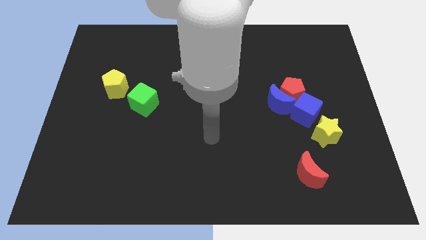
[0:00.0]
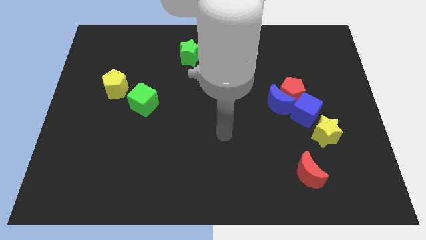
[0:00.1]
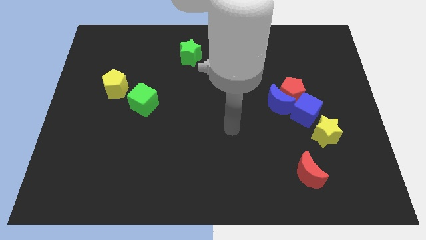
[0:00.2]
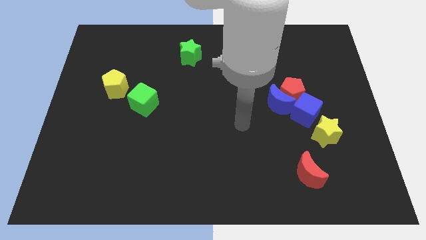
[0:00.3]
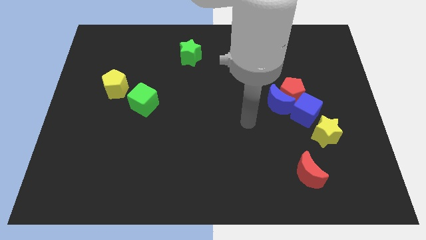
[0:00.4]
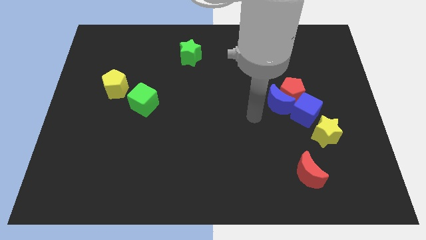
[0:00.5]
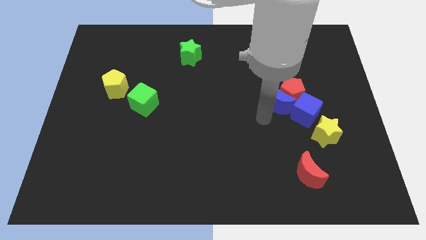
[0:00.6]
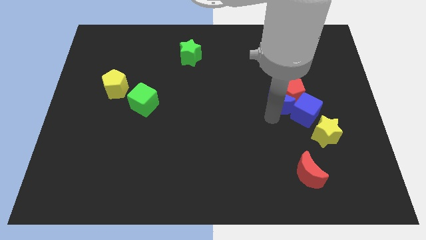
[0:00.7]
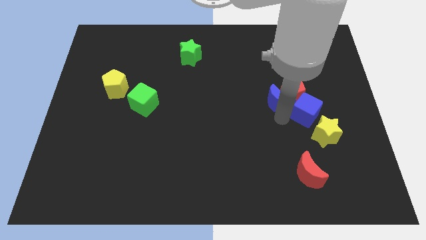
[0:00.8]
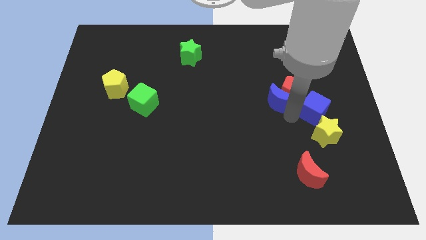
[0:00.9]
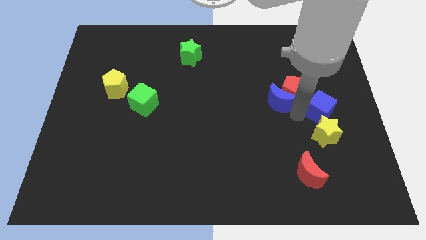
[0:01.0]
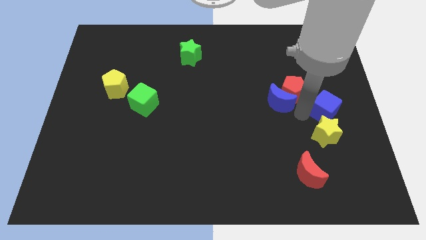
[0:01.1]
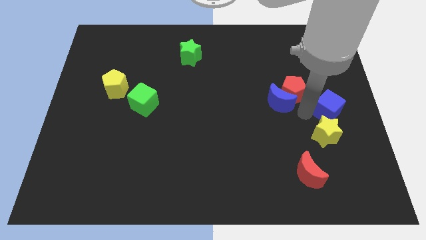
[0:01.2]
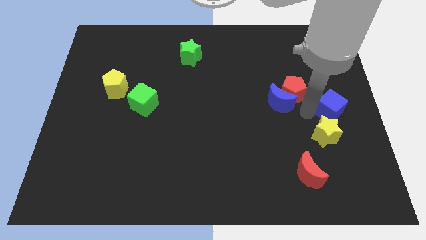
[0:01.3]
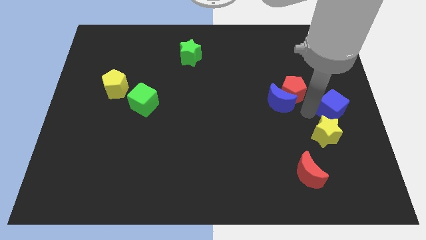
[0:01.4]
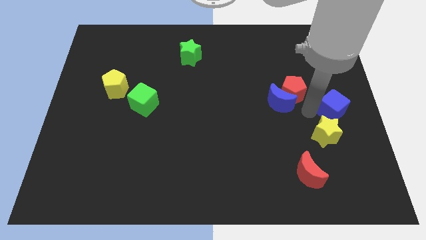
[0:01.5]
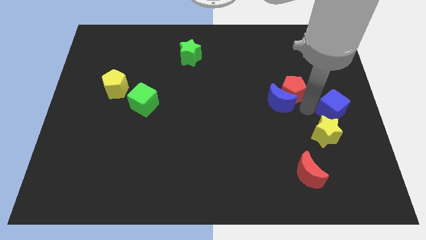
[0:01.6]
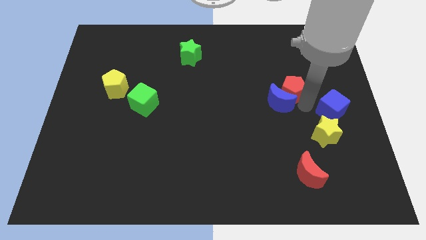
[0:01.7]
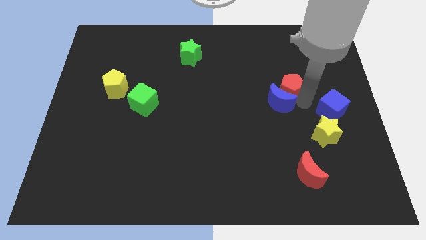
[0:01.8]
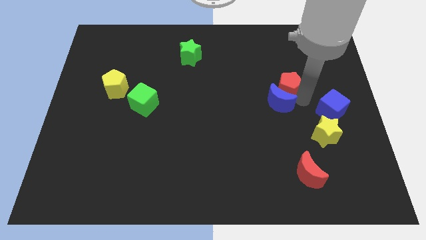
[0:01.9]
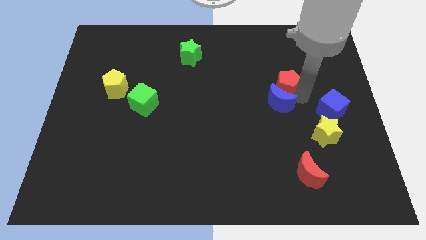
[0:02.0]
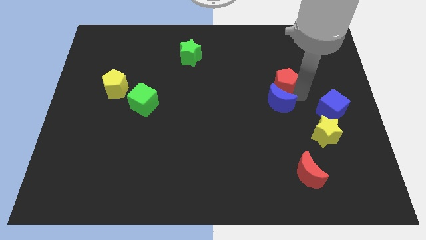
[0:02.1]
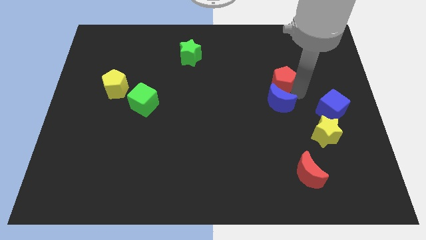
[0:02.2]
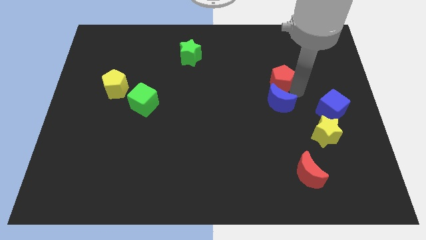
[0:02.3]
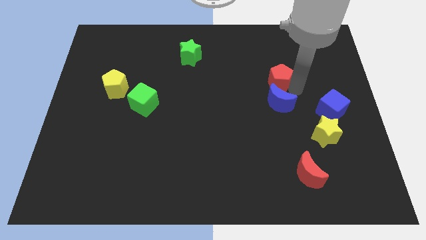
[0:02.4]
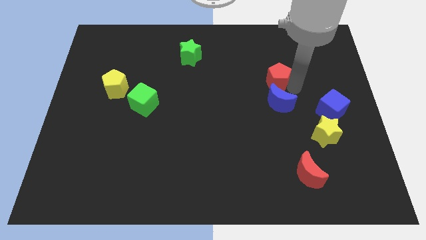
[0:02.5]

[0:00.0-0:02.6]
separate the red pentagon from the blue moon and blue cube

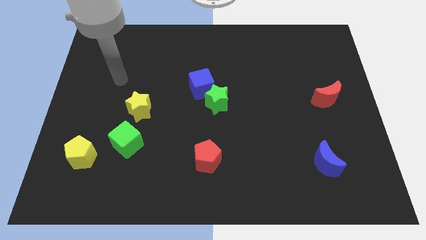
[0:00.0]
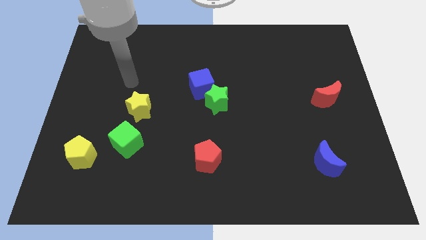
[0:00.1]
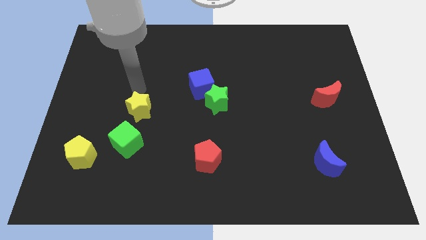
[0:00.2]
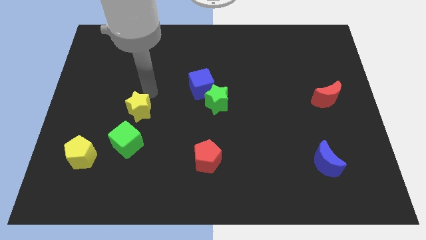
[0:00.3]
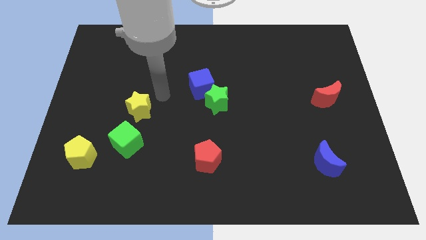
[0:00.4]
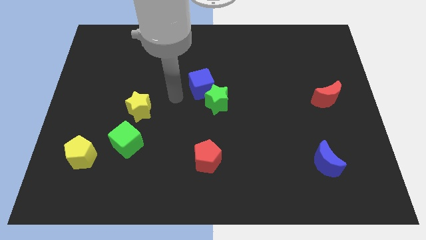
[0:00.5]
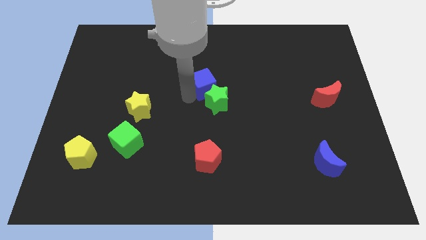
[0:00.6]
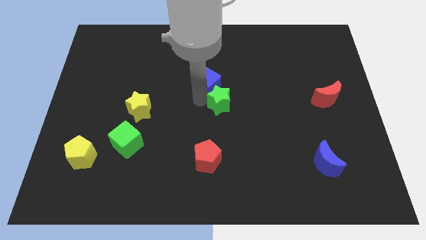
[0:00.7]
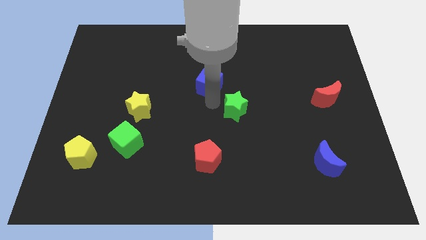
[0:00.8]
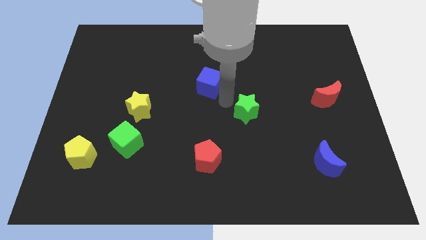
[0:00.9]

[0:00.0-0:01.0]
pull the blue cube apart from the green star

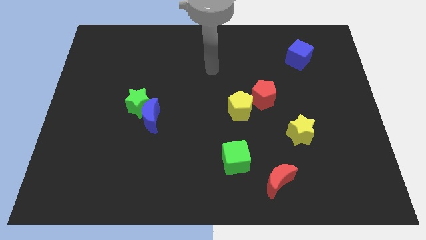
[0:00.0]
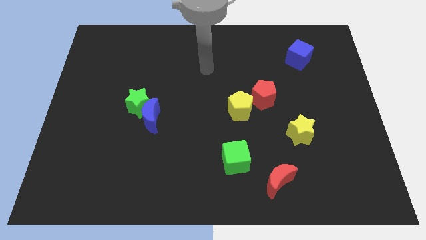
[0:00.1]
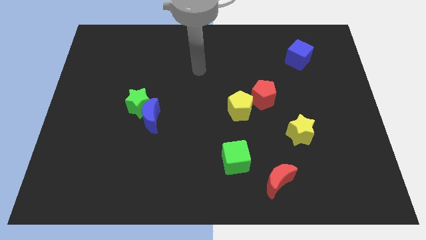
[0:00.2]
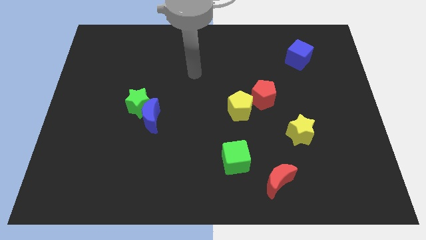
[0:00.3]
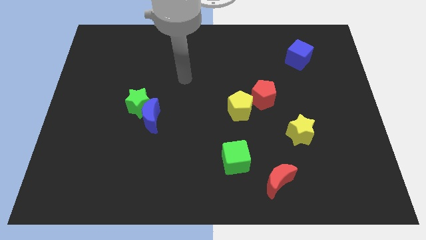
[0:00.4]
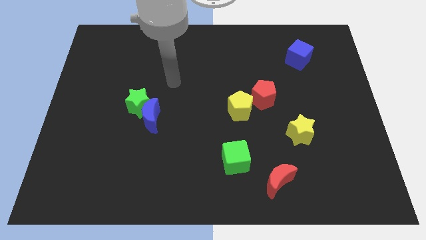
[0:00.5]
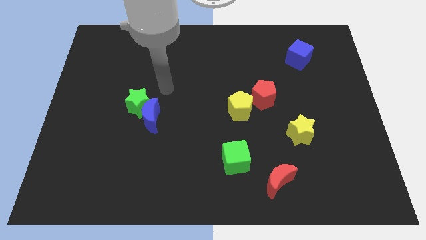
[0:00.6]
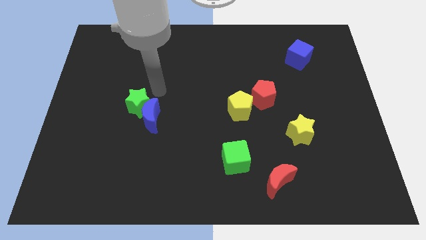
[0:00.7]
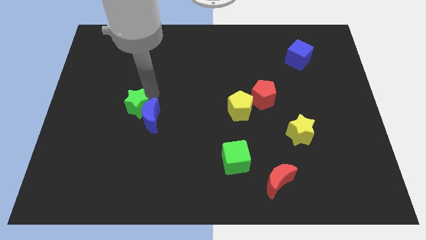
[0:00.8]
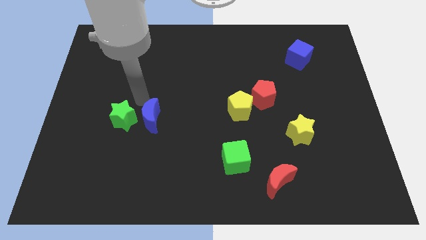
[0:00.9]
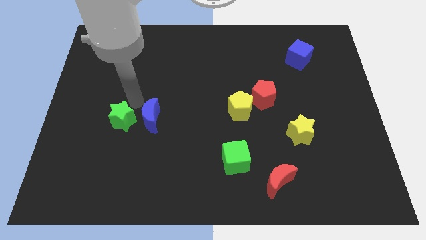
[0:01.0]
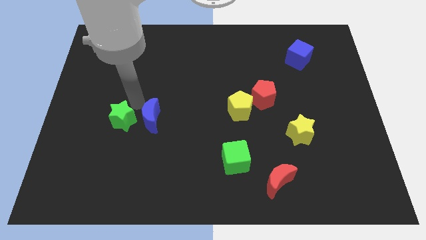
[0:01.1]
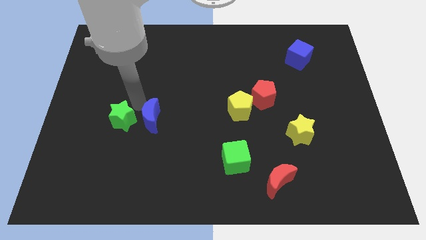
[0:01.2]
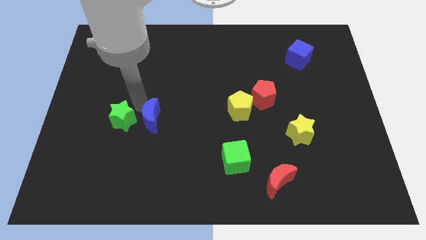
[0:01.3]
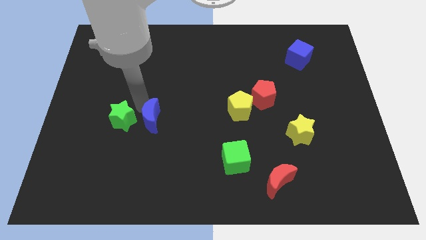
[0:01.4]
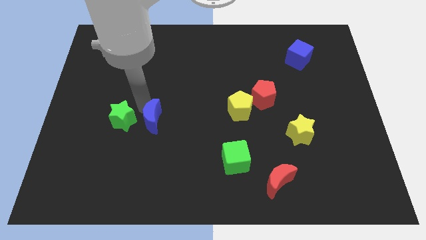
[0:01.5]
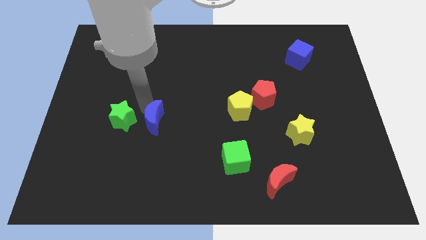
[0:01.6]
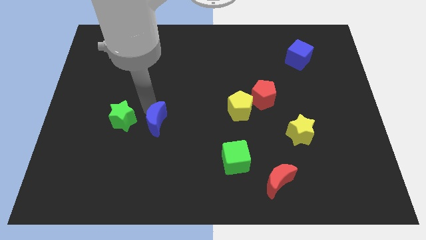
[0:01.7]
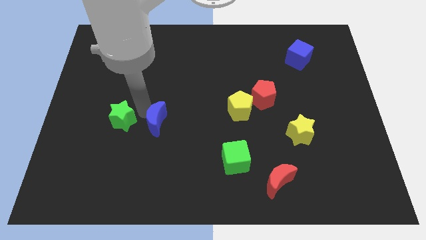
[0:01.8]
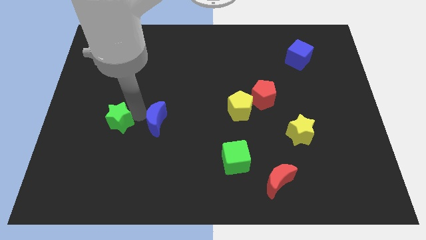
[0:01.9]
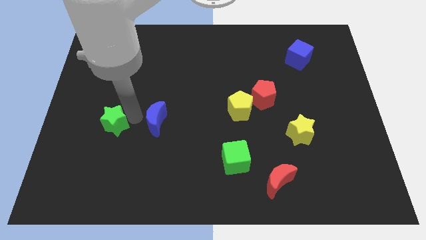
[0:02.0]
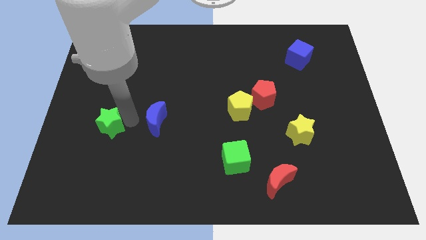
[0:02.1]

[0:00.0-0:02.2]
move the blue moon away from the green star

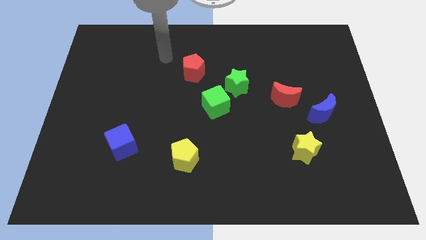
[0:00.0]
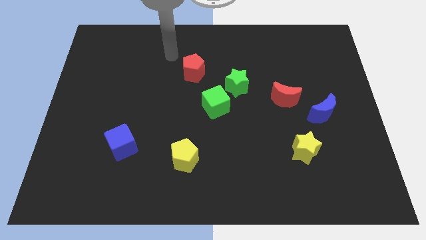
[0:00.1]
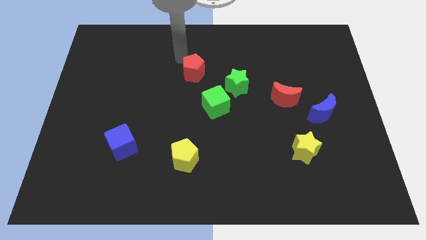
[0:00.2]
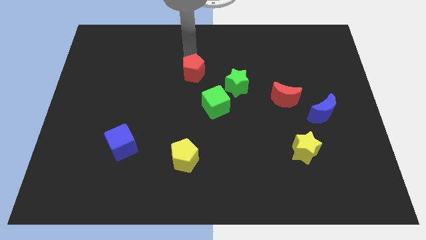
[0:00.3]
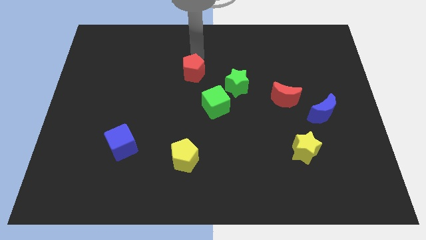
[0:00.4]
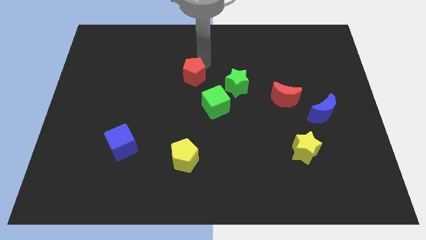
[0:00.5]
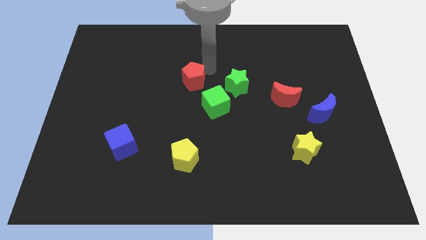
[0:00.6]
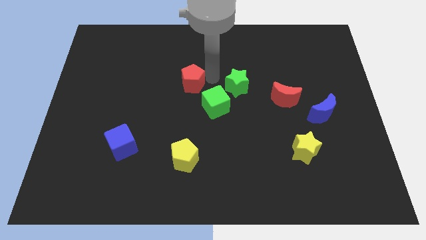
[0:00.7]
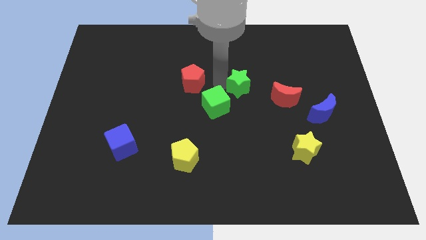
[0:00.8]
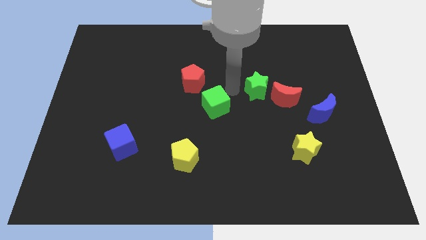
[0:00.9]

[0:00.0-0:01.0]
pull the green cube apart from the green star

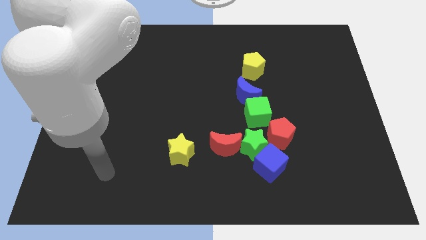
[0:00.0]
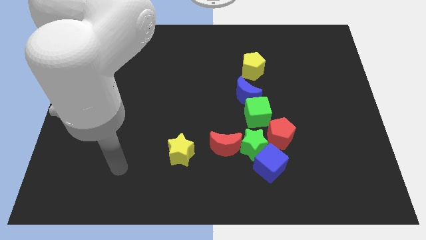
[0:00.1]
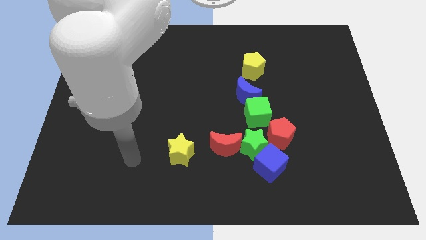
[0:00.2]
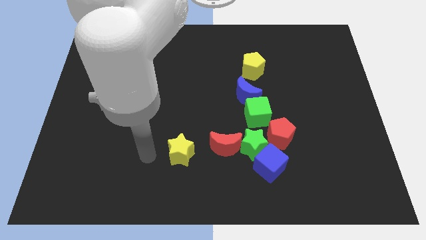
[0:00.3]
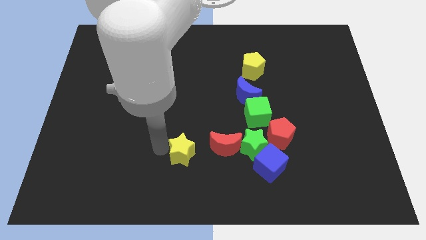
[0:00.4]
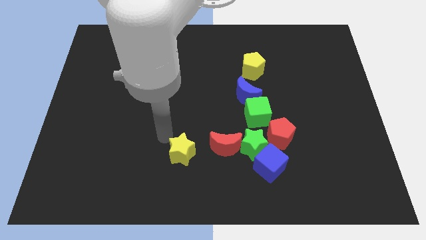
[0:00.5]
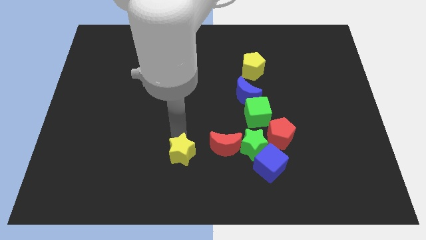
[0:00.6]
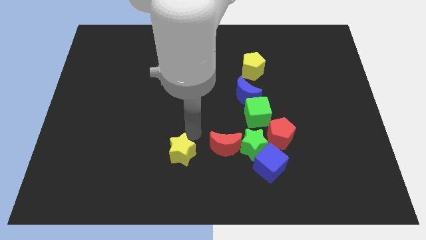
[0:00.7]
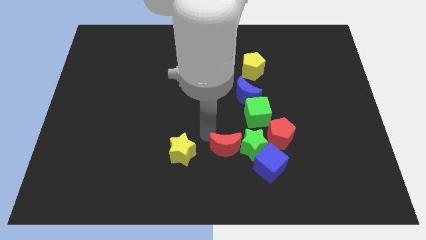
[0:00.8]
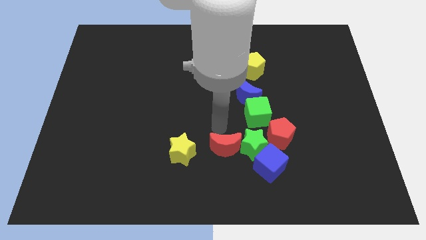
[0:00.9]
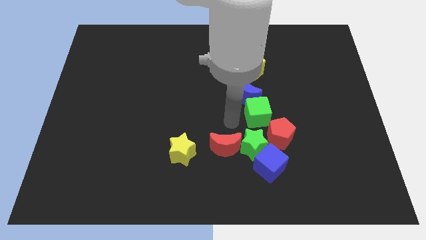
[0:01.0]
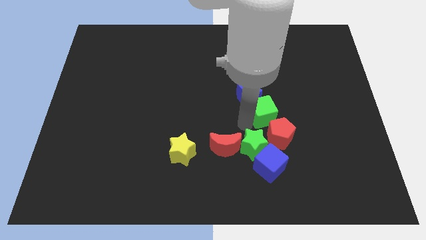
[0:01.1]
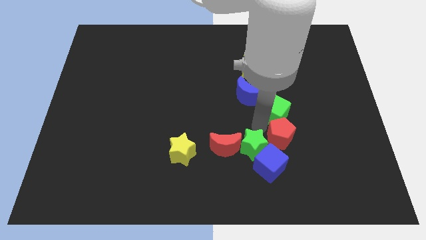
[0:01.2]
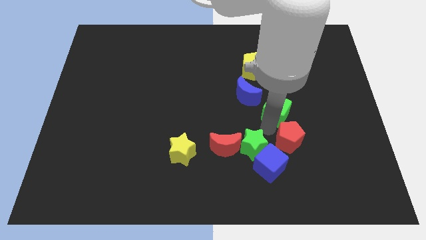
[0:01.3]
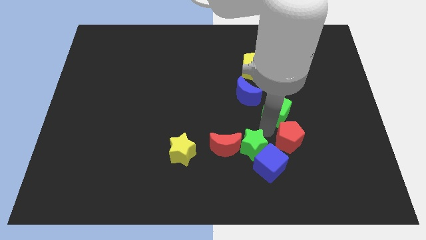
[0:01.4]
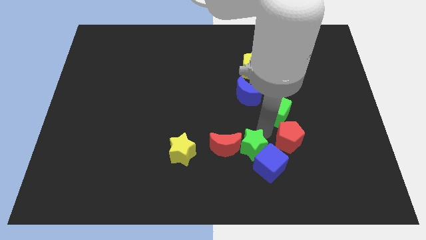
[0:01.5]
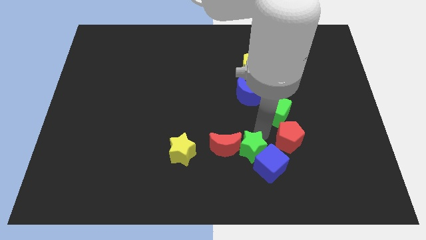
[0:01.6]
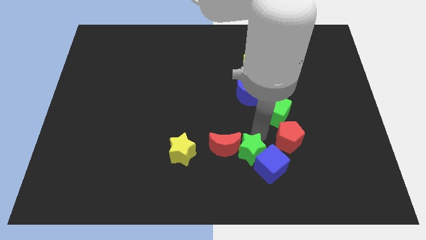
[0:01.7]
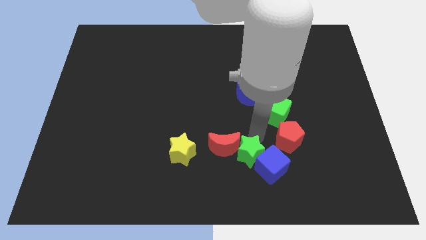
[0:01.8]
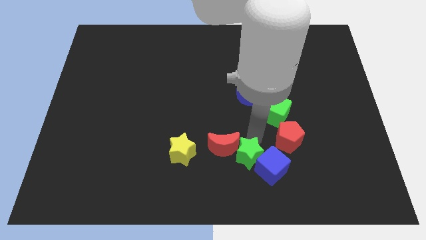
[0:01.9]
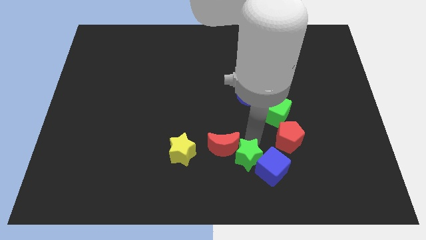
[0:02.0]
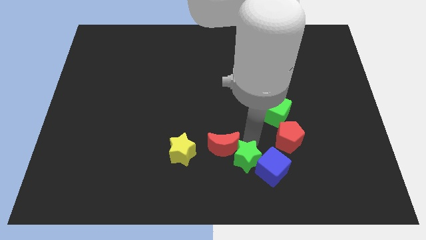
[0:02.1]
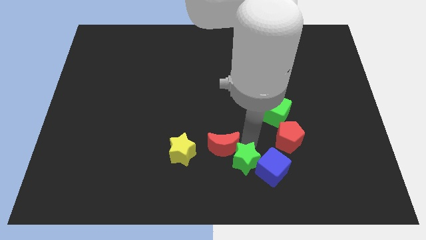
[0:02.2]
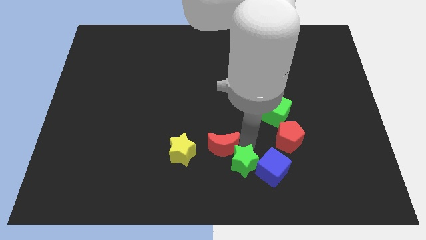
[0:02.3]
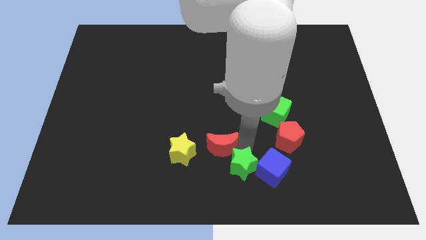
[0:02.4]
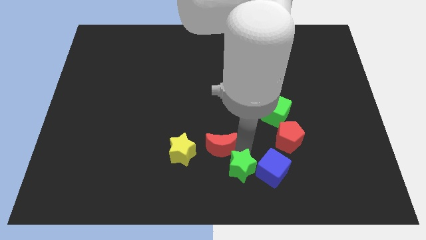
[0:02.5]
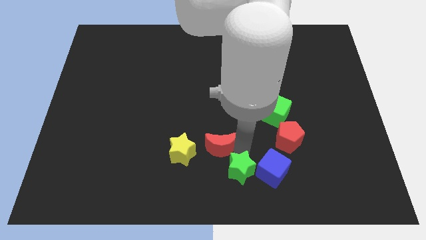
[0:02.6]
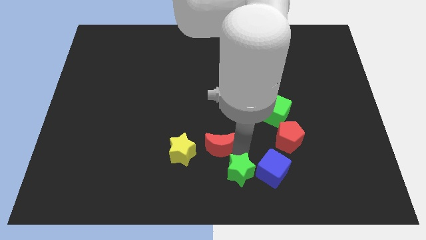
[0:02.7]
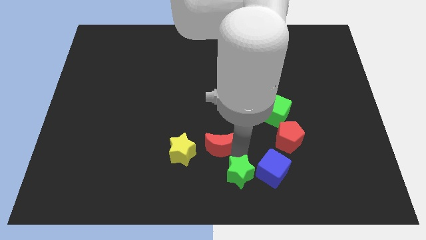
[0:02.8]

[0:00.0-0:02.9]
pull the green star apart from the group
